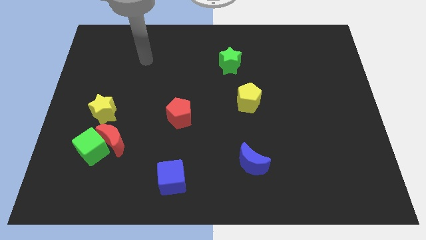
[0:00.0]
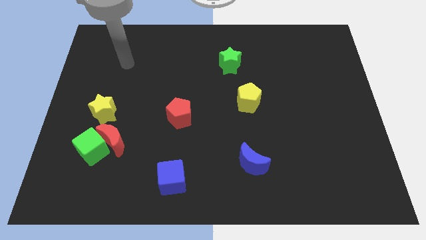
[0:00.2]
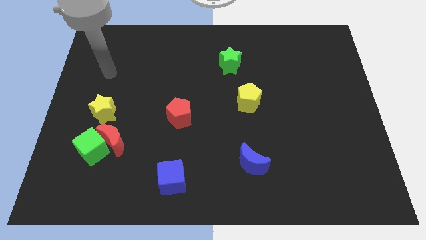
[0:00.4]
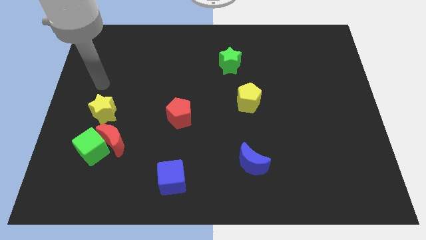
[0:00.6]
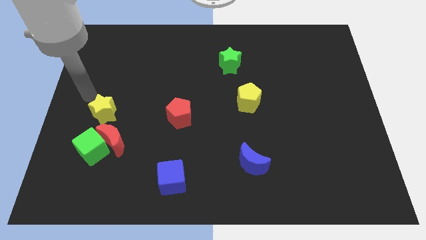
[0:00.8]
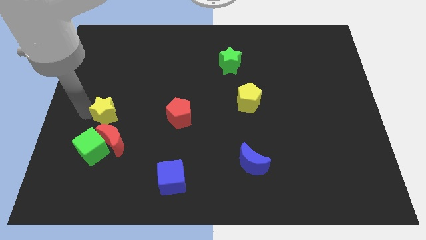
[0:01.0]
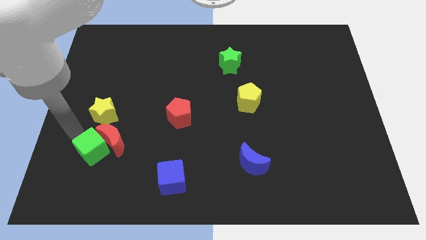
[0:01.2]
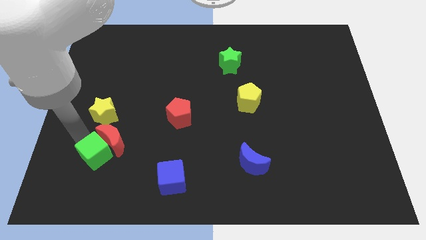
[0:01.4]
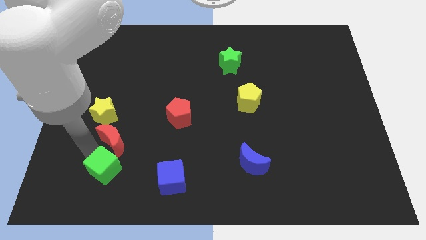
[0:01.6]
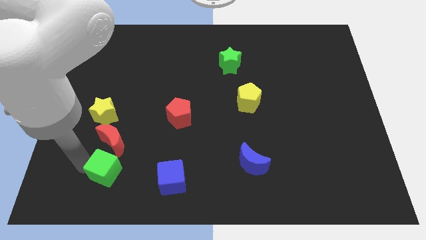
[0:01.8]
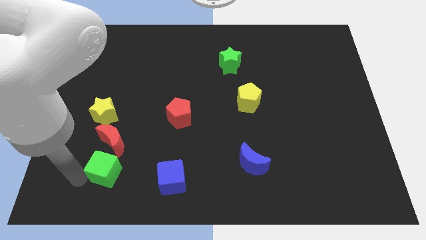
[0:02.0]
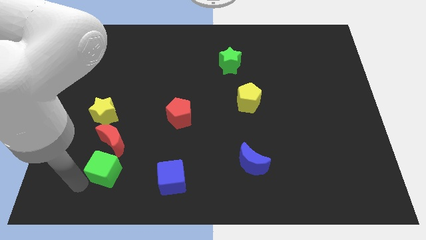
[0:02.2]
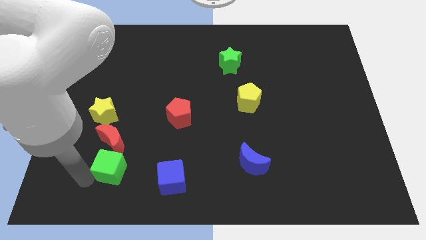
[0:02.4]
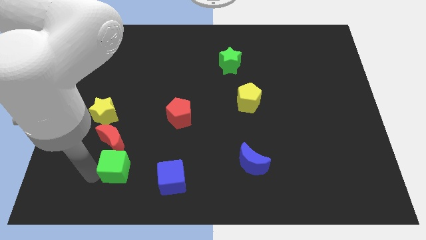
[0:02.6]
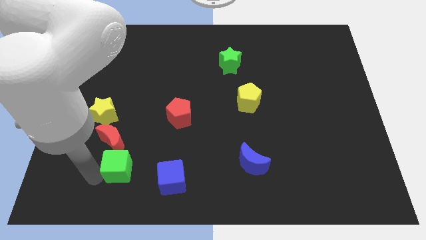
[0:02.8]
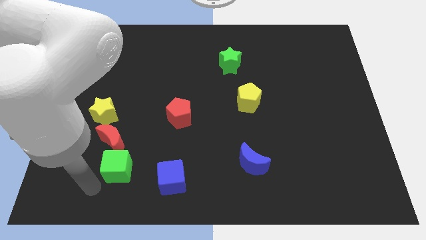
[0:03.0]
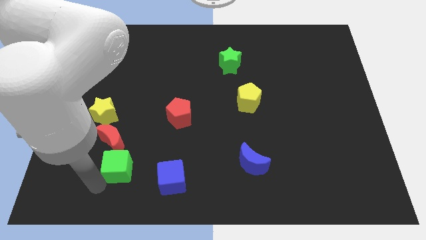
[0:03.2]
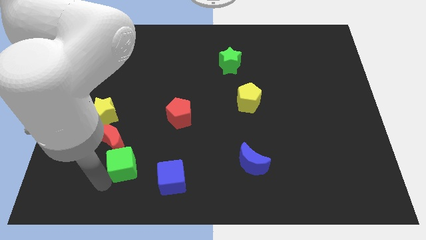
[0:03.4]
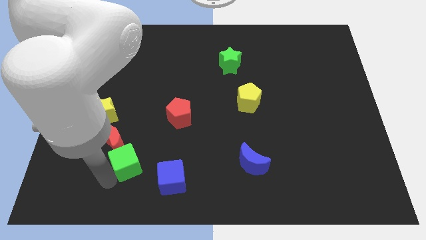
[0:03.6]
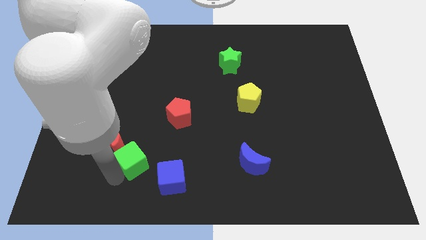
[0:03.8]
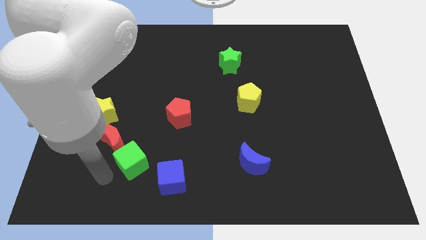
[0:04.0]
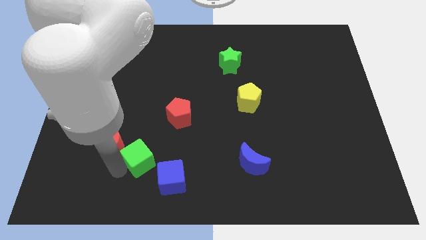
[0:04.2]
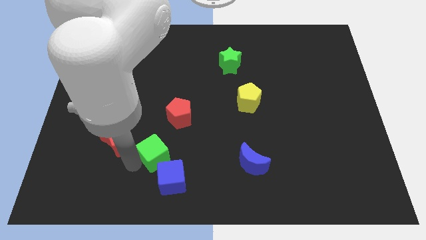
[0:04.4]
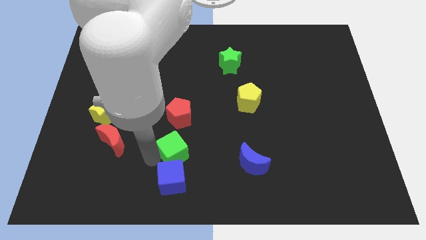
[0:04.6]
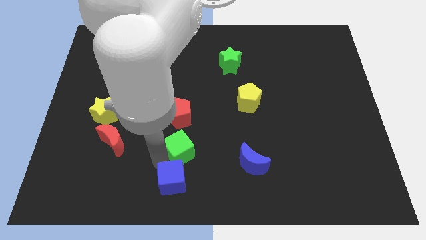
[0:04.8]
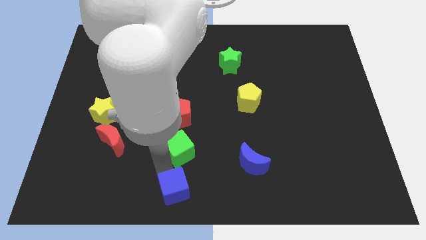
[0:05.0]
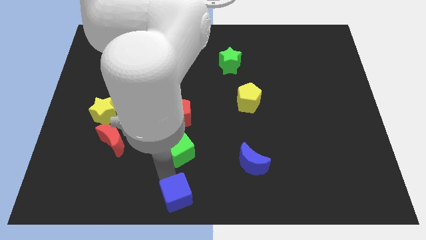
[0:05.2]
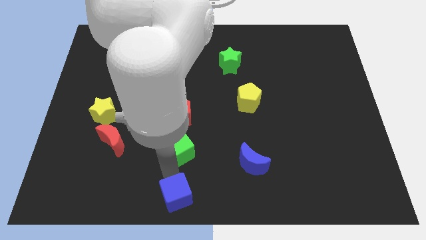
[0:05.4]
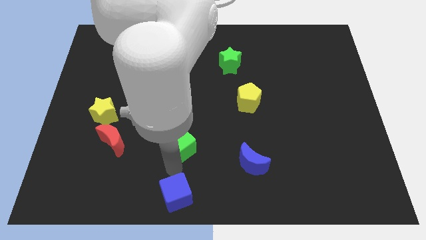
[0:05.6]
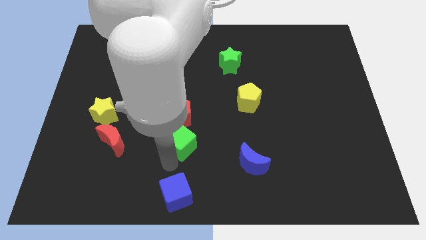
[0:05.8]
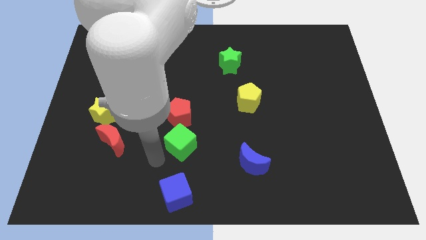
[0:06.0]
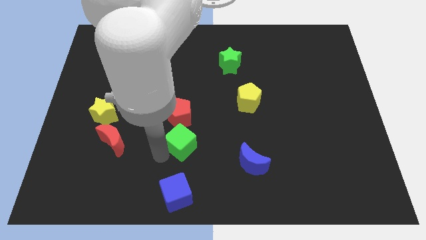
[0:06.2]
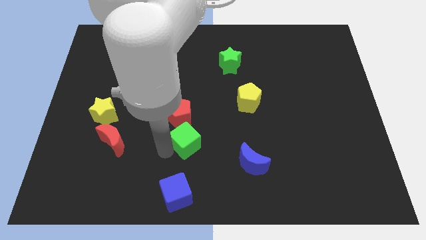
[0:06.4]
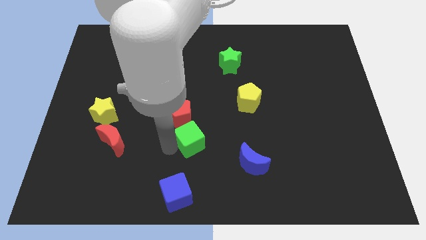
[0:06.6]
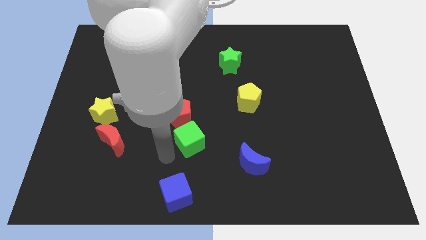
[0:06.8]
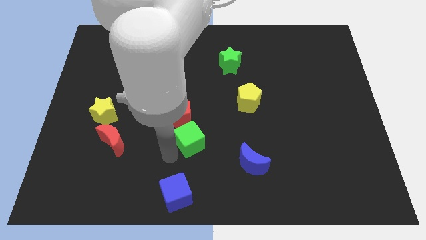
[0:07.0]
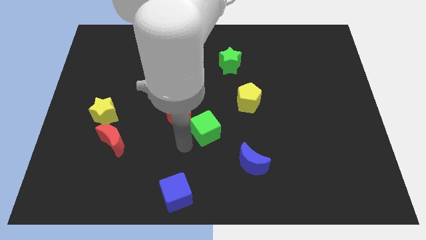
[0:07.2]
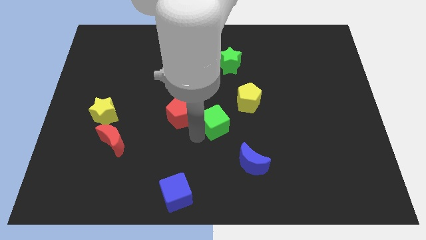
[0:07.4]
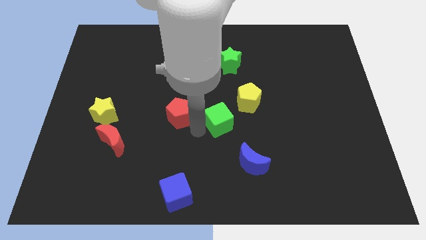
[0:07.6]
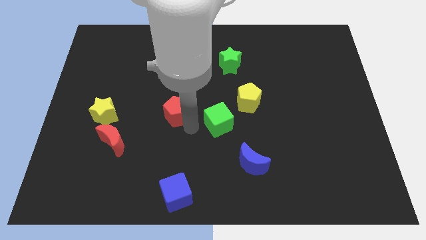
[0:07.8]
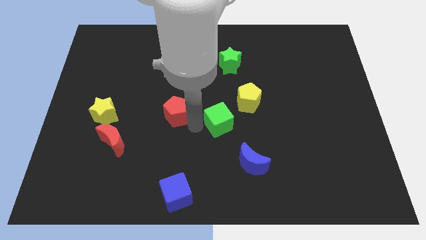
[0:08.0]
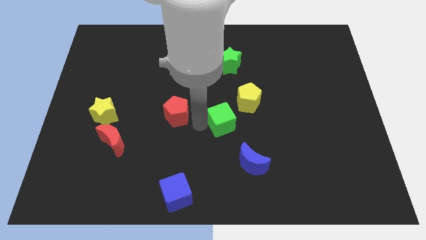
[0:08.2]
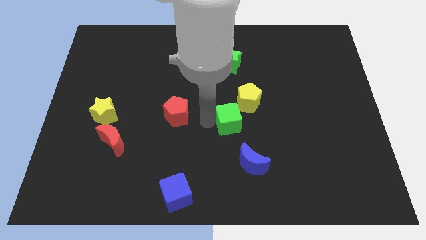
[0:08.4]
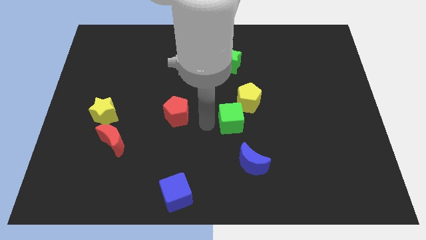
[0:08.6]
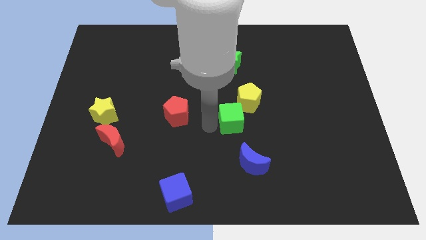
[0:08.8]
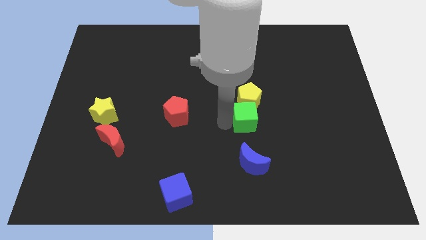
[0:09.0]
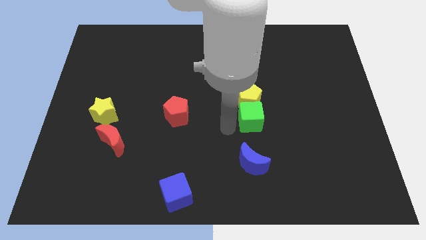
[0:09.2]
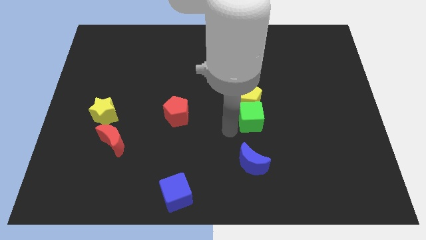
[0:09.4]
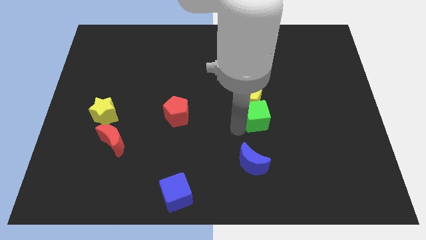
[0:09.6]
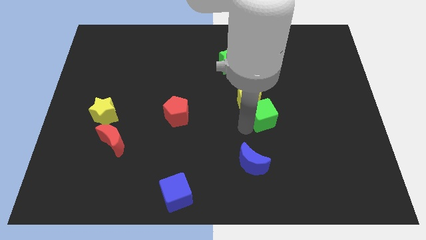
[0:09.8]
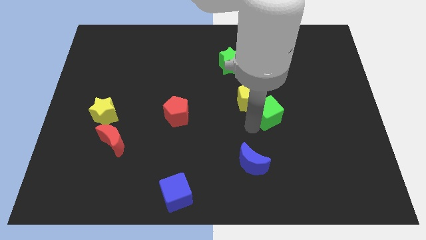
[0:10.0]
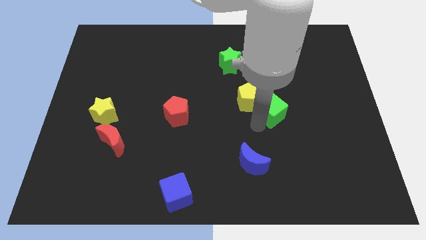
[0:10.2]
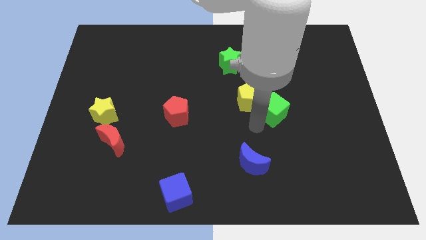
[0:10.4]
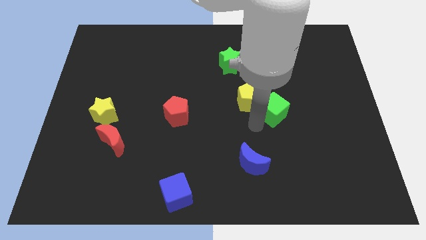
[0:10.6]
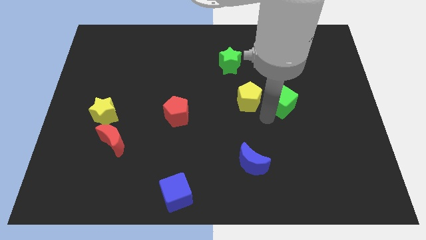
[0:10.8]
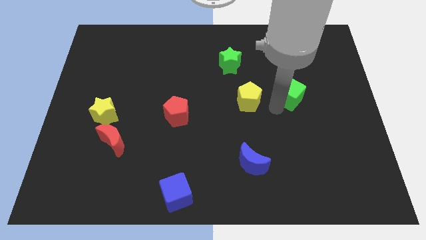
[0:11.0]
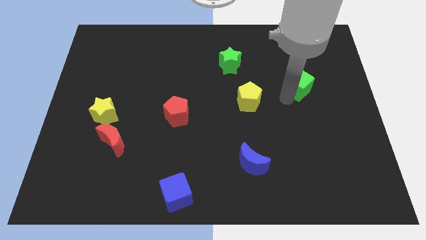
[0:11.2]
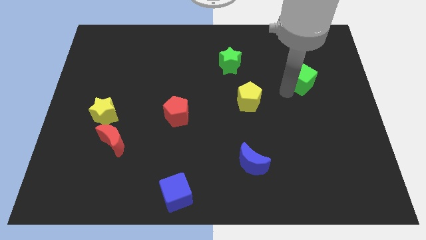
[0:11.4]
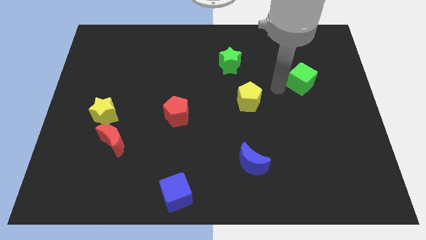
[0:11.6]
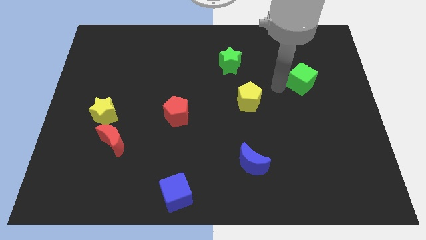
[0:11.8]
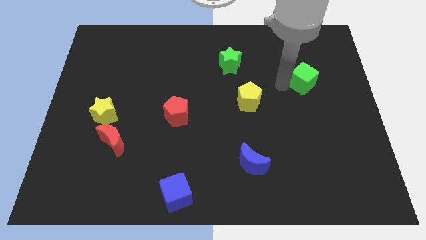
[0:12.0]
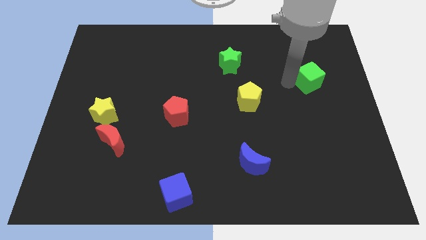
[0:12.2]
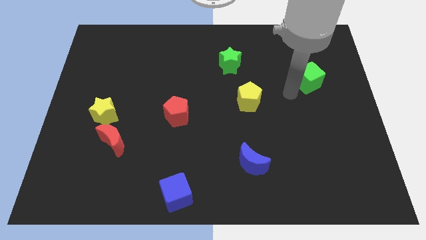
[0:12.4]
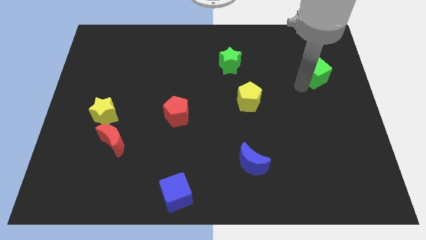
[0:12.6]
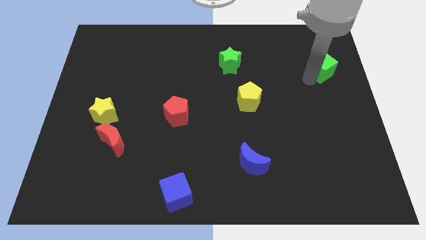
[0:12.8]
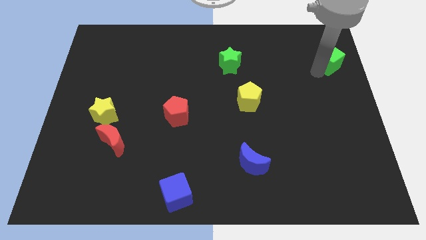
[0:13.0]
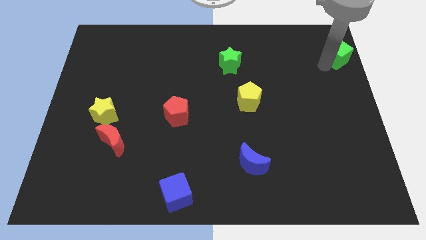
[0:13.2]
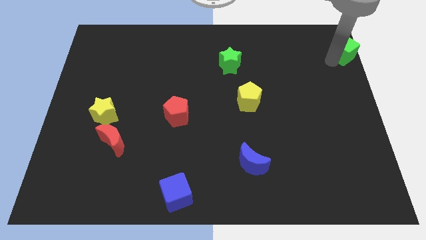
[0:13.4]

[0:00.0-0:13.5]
put the green cube to the top right corner

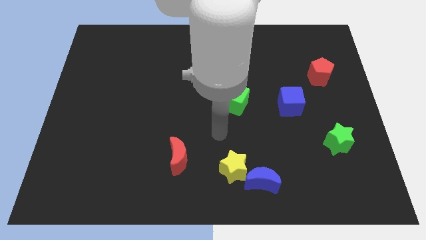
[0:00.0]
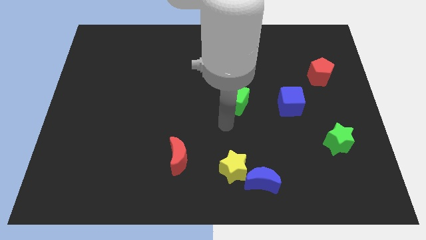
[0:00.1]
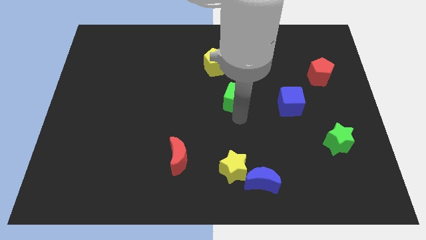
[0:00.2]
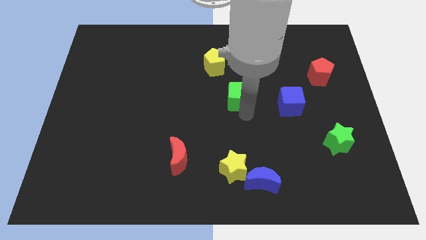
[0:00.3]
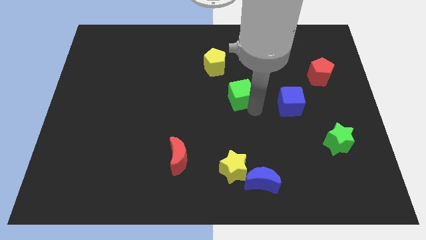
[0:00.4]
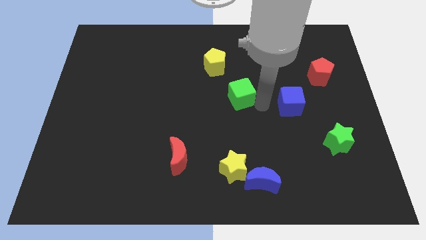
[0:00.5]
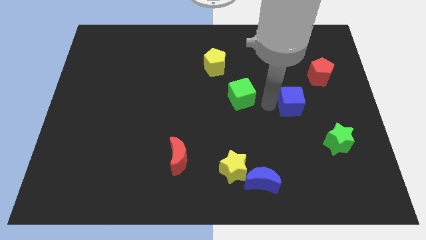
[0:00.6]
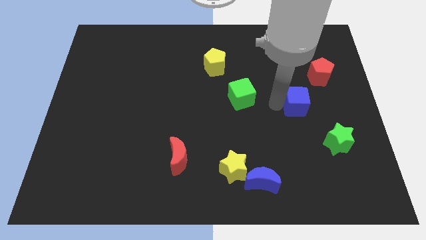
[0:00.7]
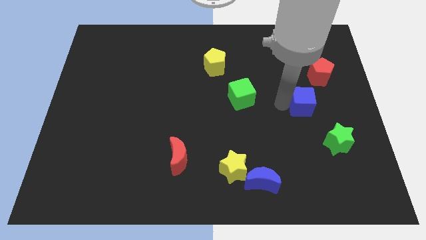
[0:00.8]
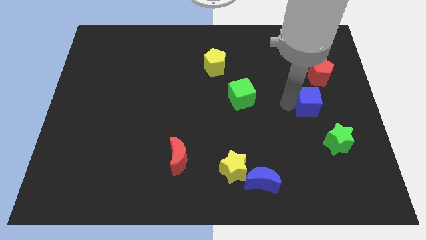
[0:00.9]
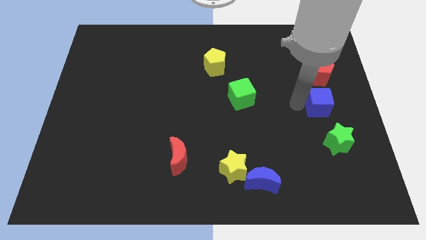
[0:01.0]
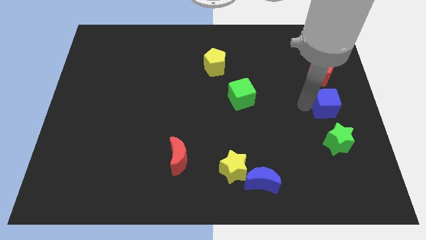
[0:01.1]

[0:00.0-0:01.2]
move the blue cube to the right side of the board

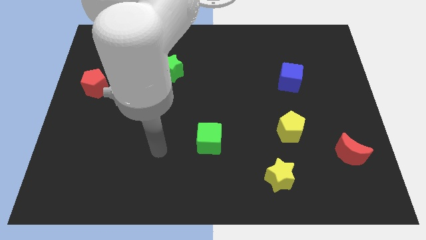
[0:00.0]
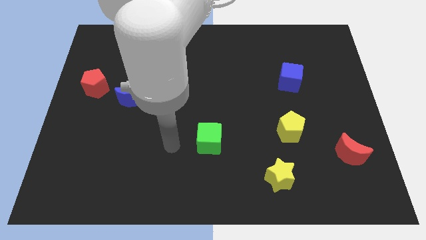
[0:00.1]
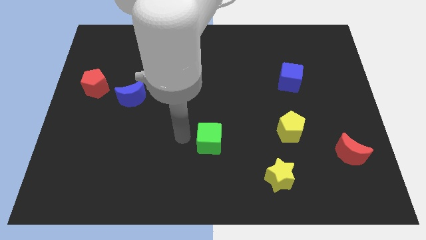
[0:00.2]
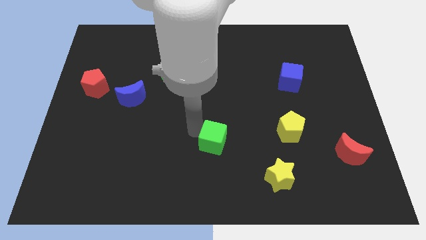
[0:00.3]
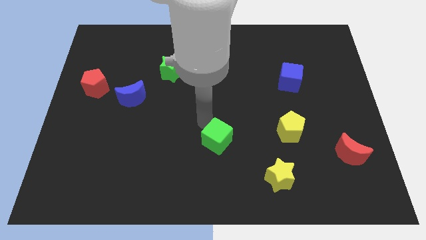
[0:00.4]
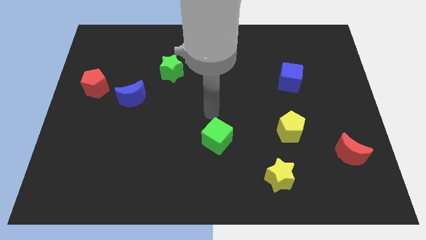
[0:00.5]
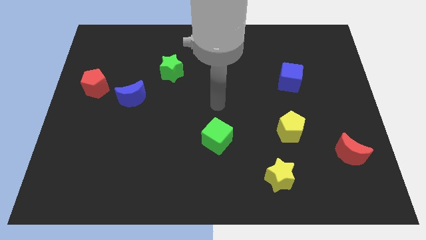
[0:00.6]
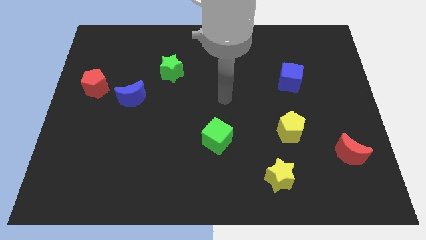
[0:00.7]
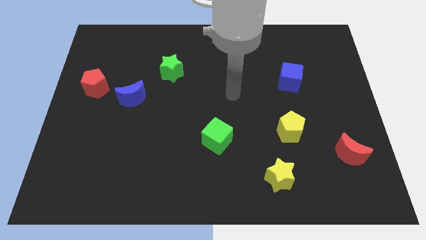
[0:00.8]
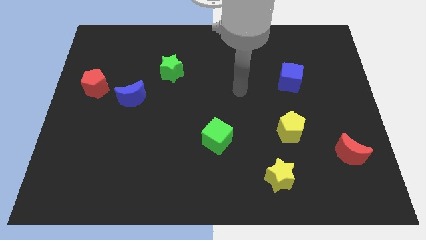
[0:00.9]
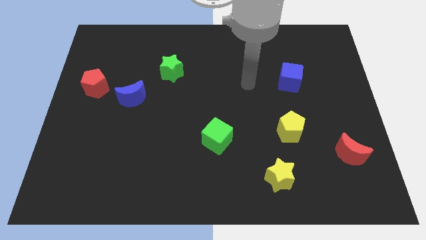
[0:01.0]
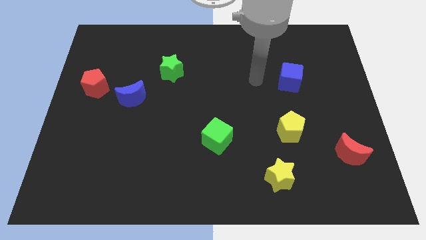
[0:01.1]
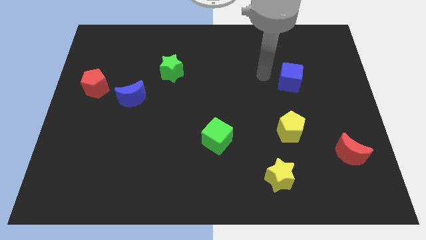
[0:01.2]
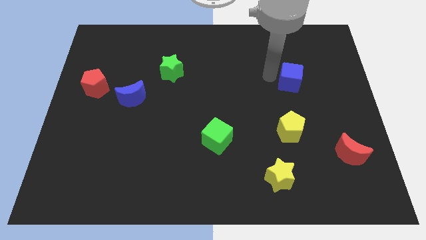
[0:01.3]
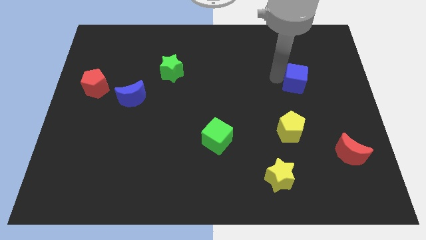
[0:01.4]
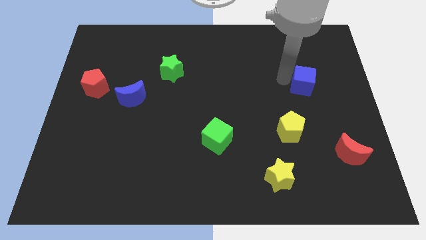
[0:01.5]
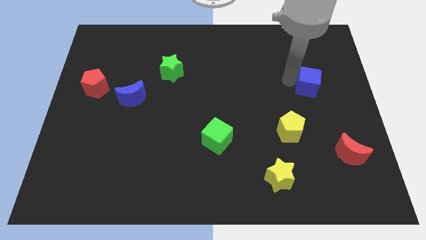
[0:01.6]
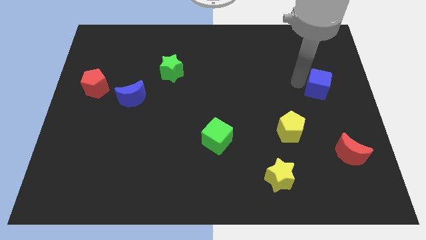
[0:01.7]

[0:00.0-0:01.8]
put the blue cube to the center right
